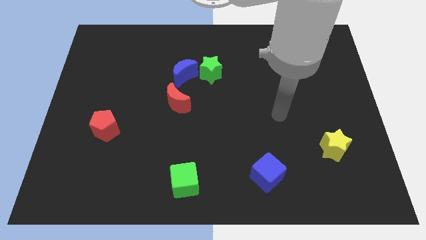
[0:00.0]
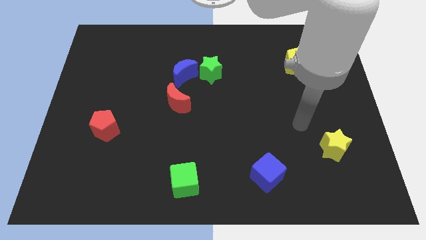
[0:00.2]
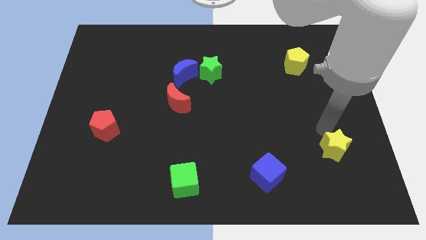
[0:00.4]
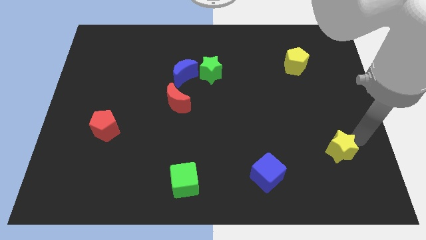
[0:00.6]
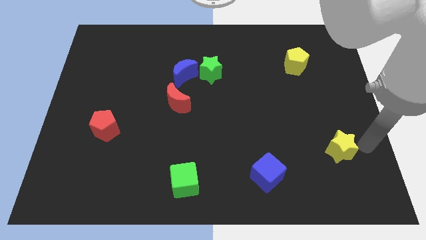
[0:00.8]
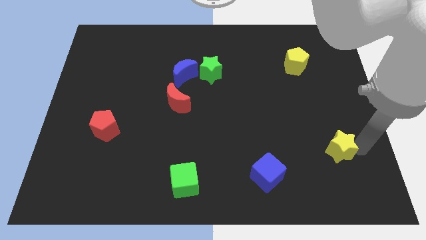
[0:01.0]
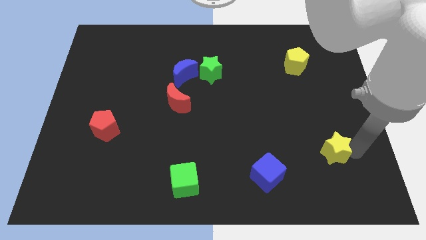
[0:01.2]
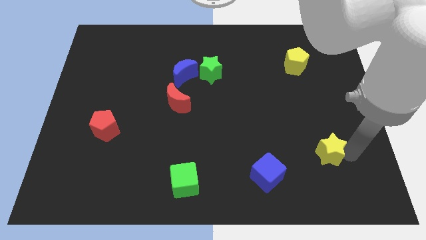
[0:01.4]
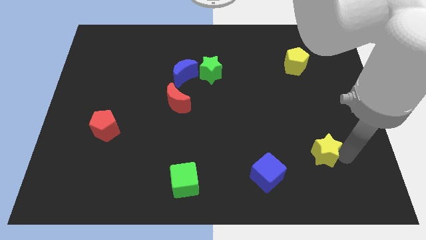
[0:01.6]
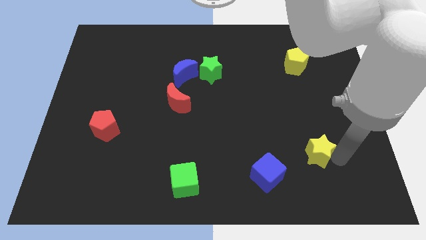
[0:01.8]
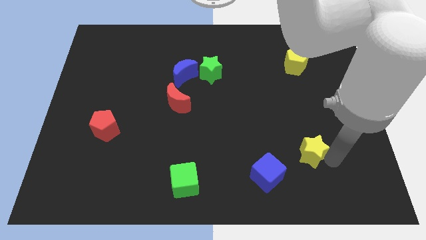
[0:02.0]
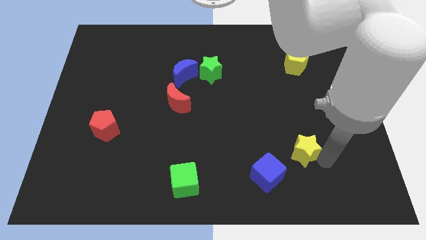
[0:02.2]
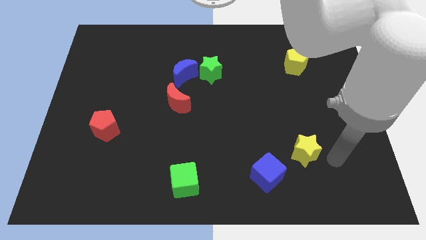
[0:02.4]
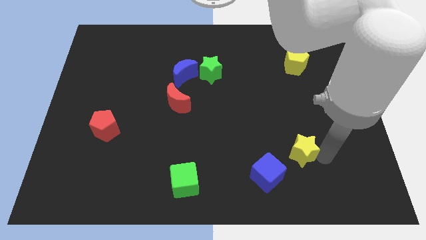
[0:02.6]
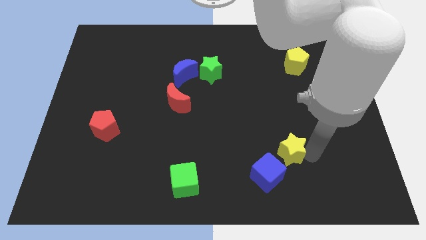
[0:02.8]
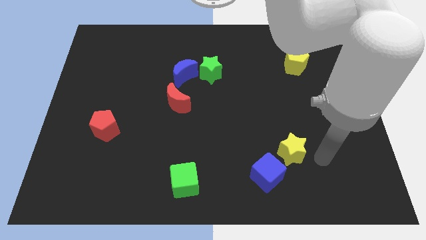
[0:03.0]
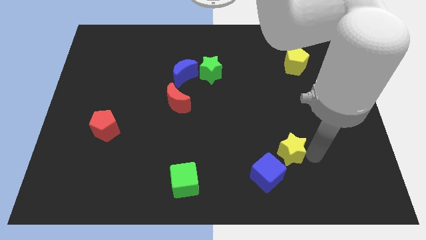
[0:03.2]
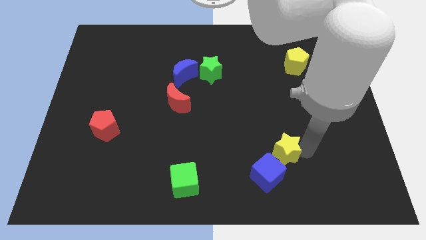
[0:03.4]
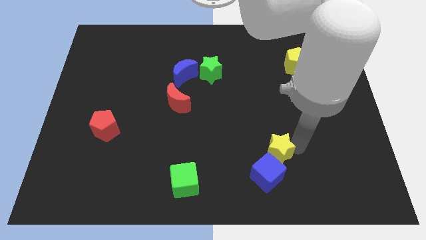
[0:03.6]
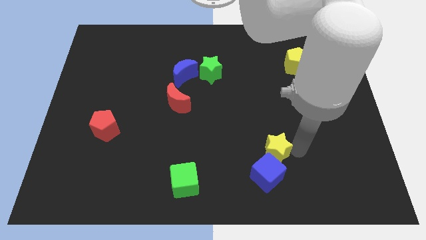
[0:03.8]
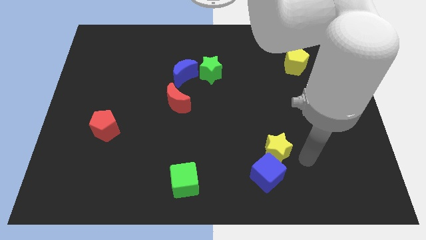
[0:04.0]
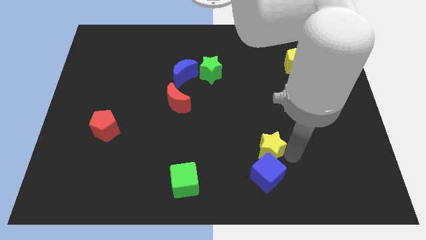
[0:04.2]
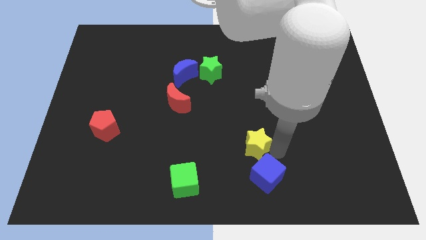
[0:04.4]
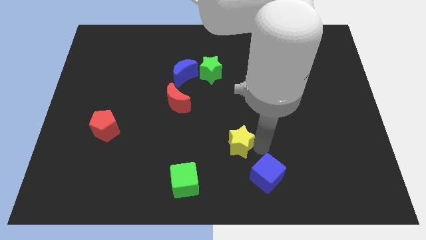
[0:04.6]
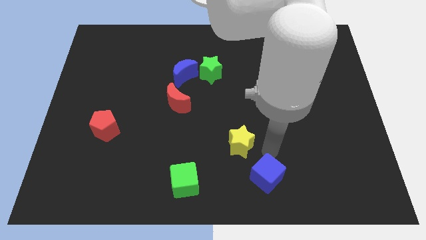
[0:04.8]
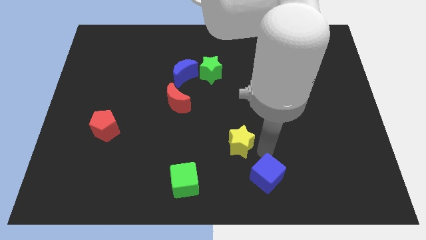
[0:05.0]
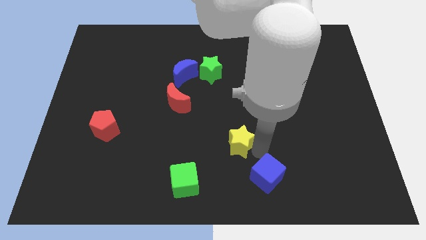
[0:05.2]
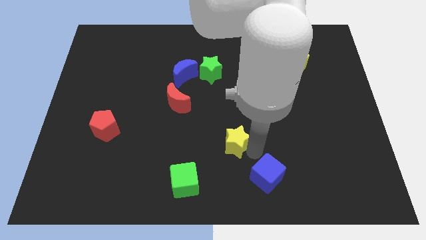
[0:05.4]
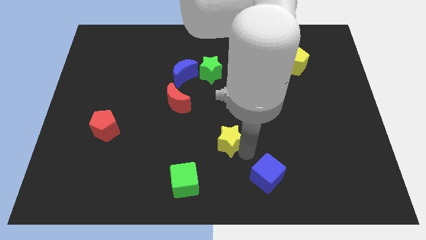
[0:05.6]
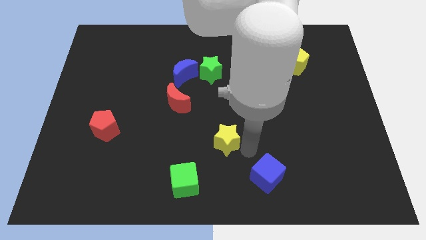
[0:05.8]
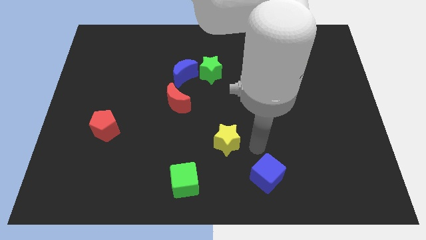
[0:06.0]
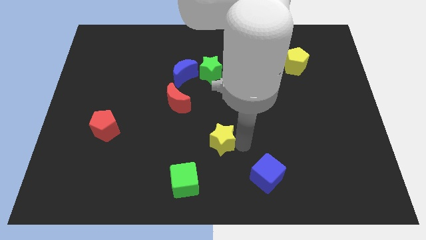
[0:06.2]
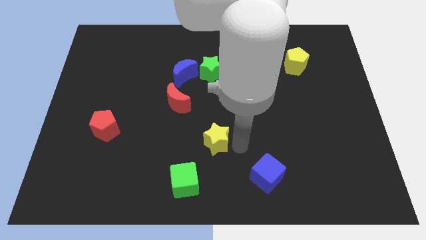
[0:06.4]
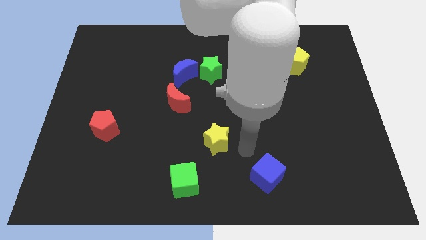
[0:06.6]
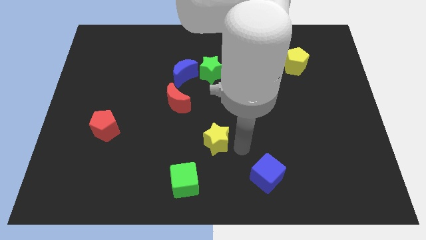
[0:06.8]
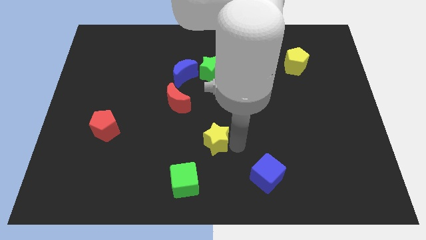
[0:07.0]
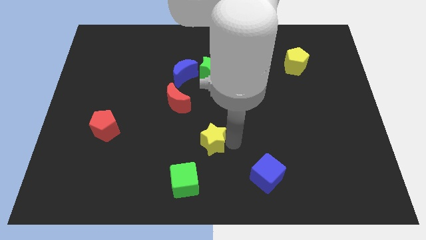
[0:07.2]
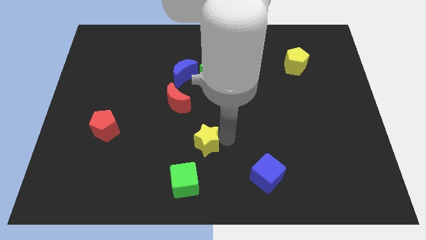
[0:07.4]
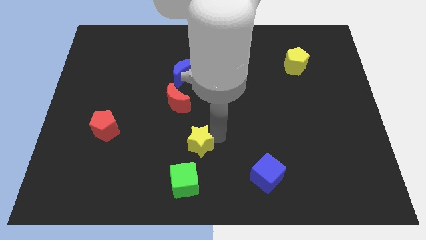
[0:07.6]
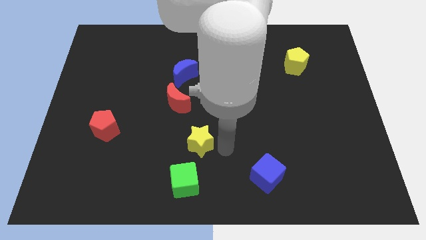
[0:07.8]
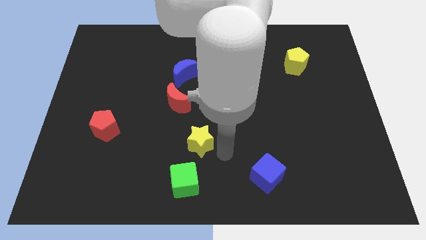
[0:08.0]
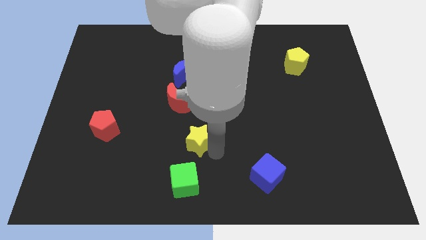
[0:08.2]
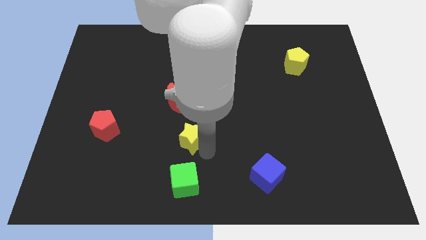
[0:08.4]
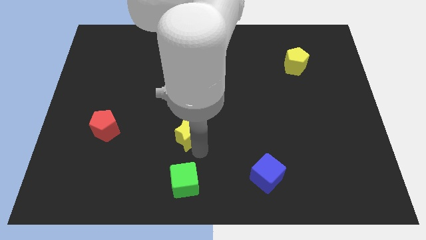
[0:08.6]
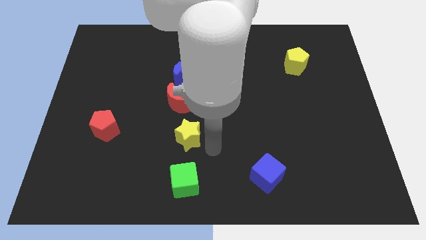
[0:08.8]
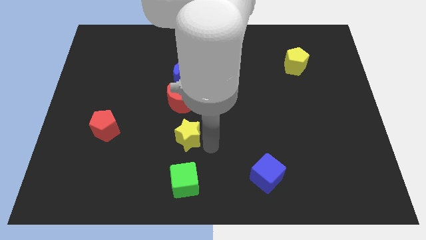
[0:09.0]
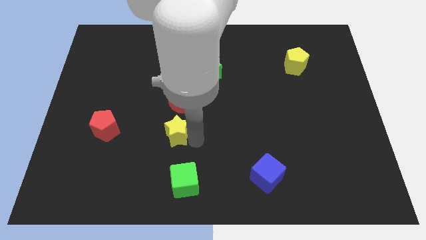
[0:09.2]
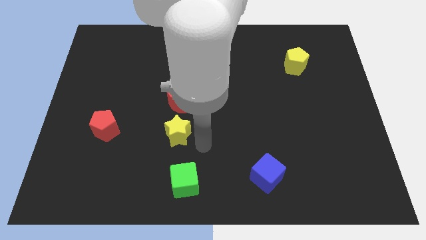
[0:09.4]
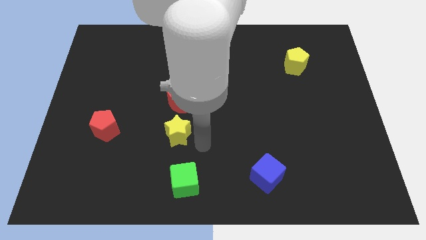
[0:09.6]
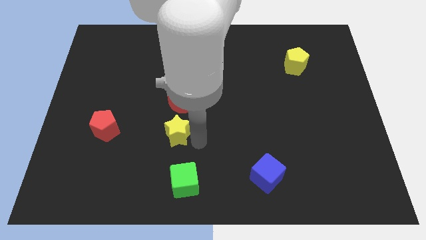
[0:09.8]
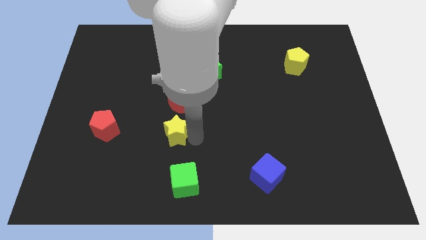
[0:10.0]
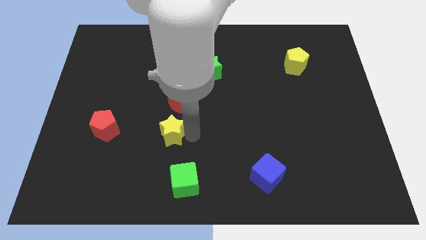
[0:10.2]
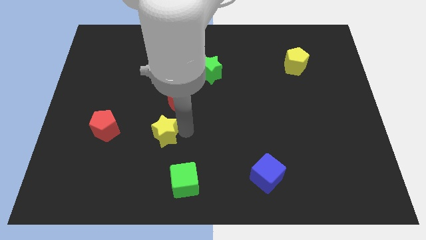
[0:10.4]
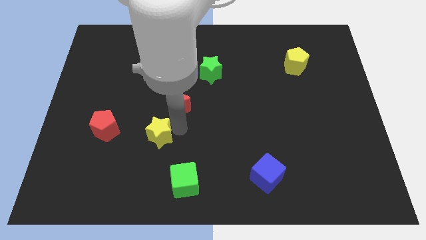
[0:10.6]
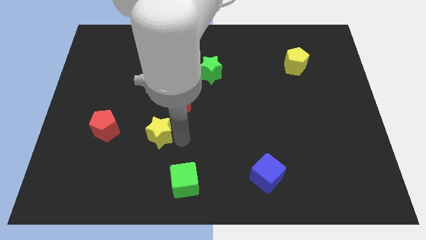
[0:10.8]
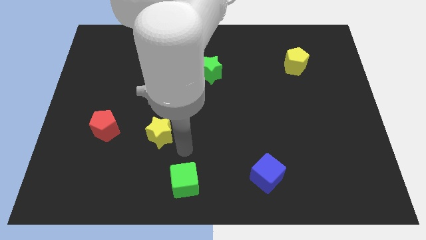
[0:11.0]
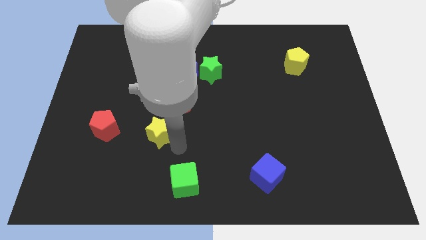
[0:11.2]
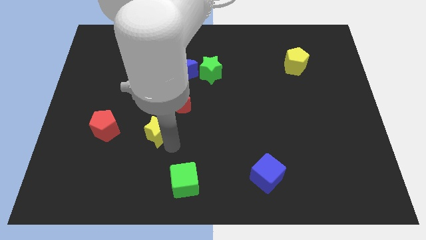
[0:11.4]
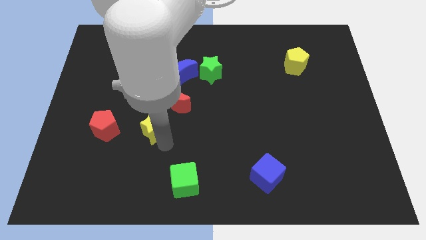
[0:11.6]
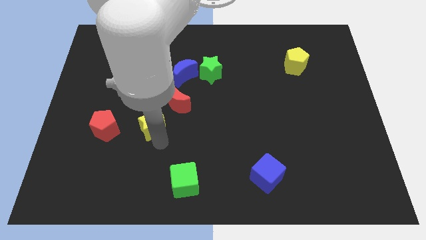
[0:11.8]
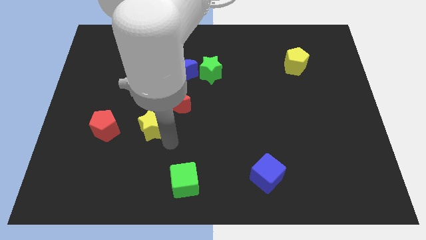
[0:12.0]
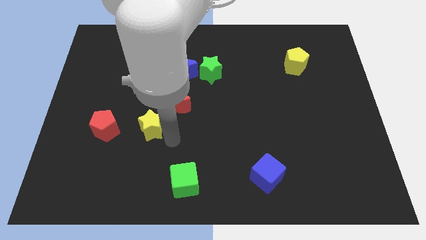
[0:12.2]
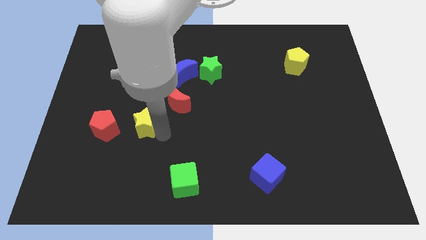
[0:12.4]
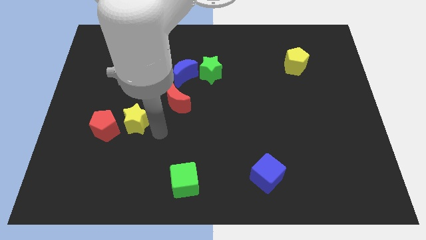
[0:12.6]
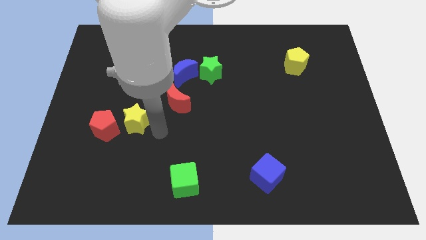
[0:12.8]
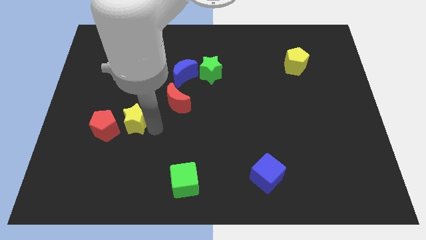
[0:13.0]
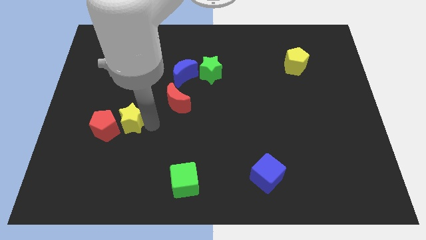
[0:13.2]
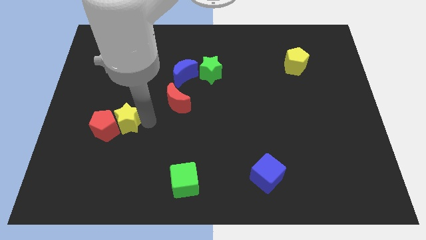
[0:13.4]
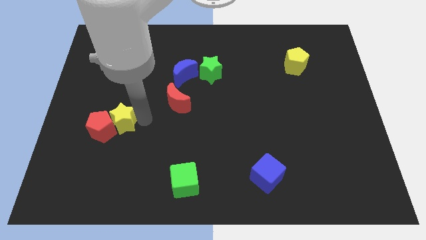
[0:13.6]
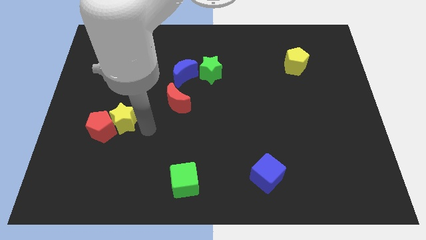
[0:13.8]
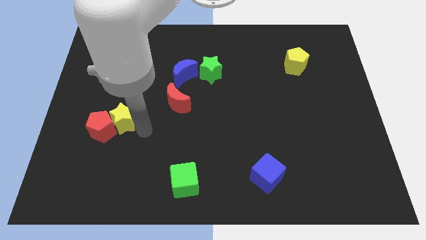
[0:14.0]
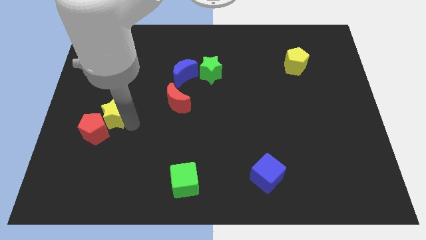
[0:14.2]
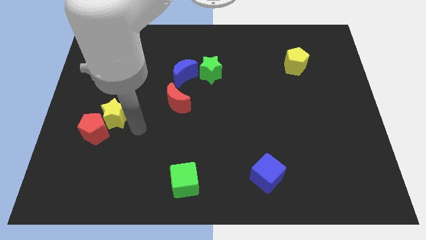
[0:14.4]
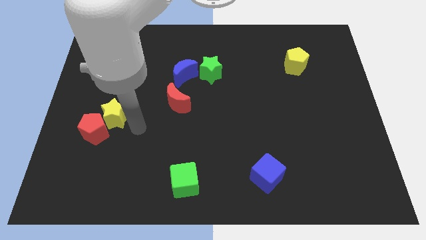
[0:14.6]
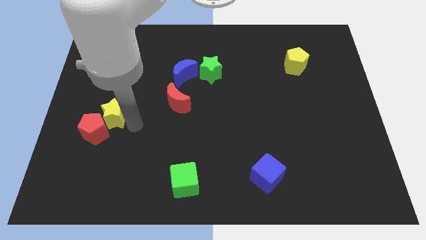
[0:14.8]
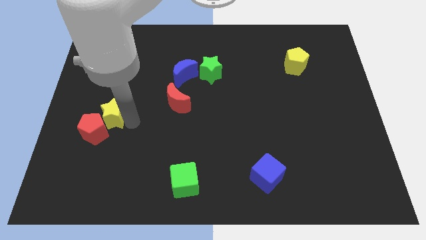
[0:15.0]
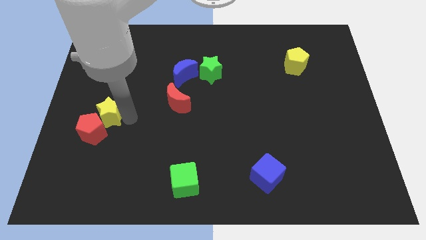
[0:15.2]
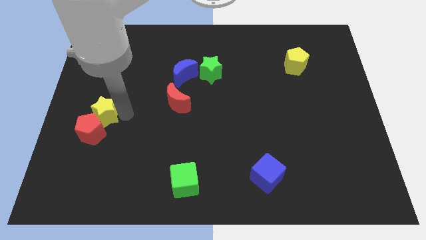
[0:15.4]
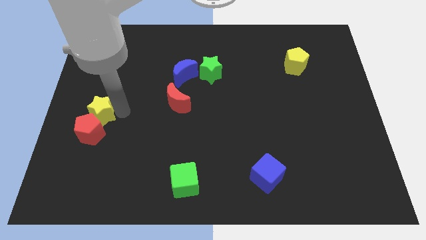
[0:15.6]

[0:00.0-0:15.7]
put the yellow star to the left side
